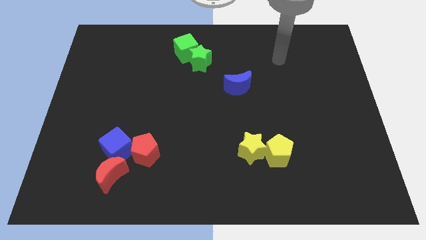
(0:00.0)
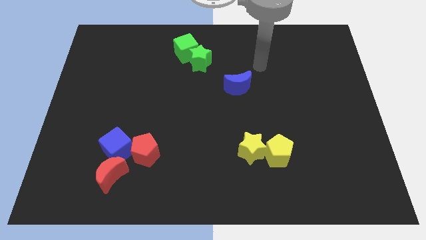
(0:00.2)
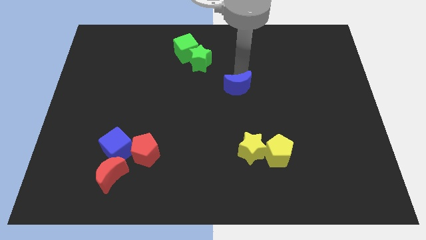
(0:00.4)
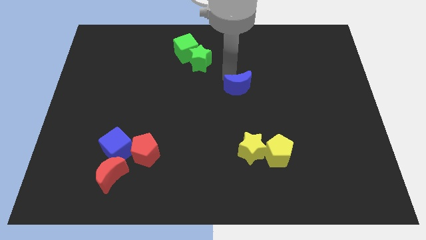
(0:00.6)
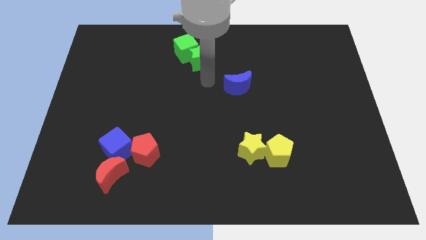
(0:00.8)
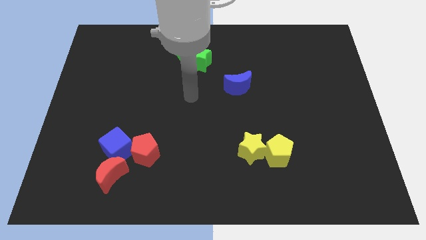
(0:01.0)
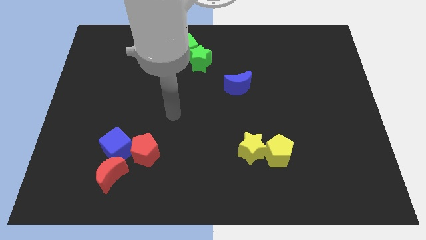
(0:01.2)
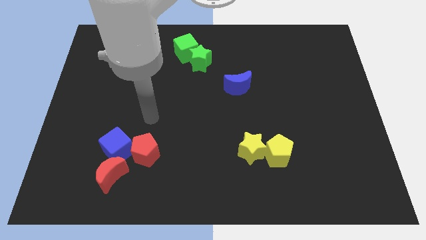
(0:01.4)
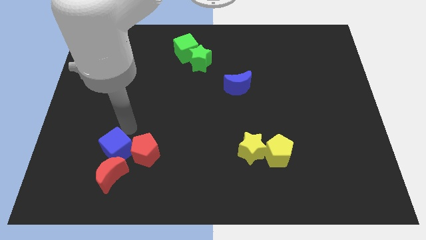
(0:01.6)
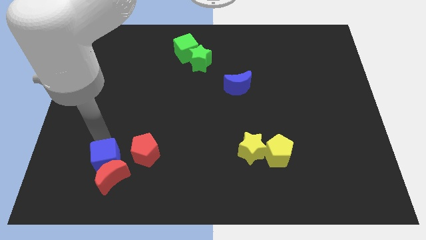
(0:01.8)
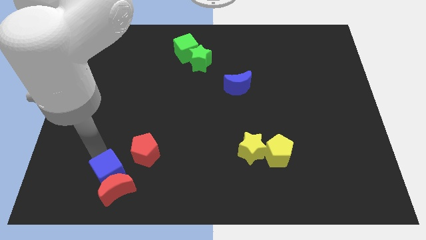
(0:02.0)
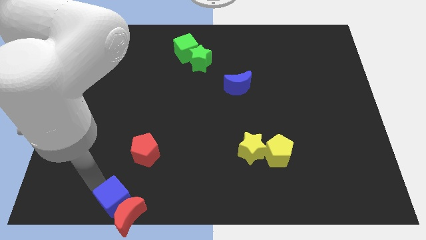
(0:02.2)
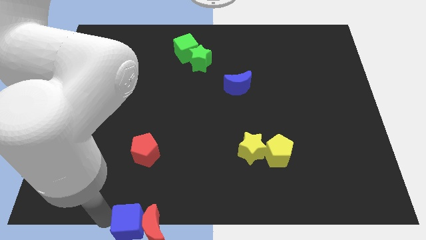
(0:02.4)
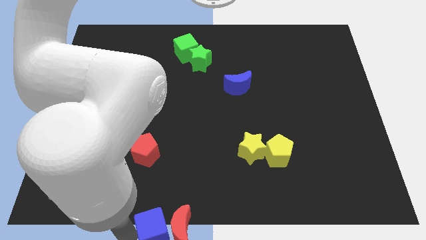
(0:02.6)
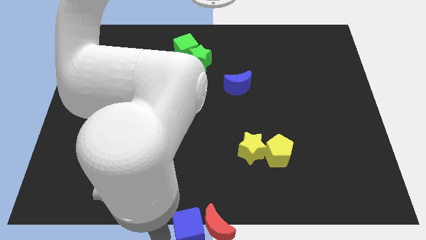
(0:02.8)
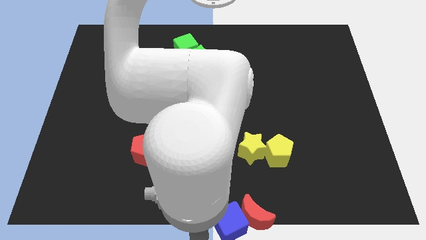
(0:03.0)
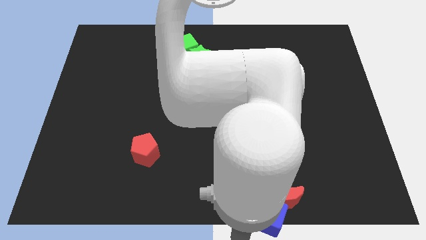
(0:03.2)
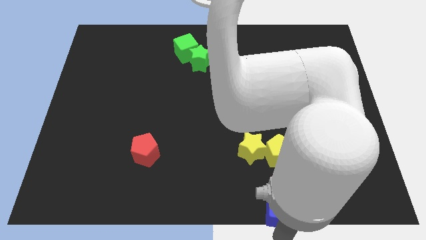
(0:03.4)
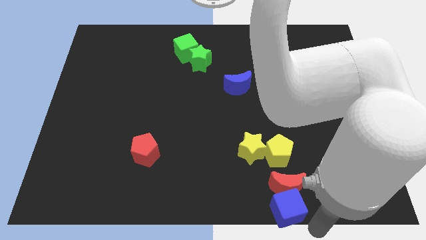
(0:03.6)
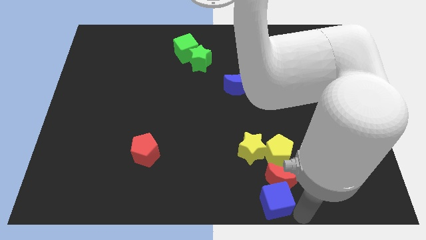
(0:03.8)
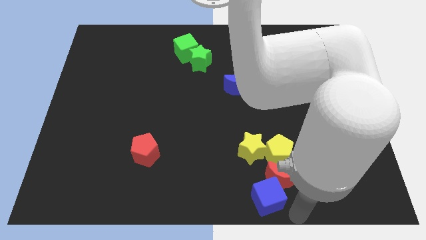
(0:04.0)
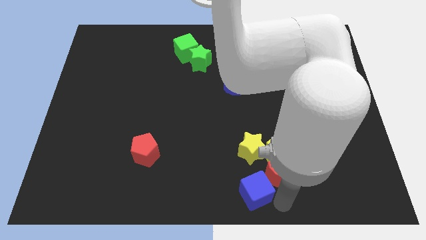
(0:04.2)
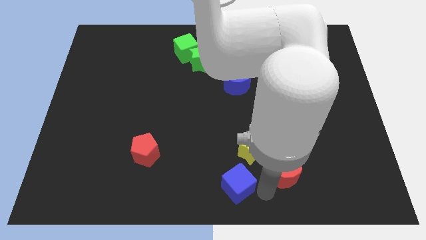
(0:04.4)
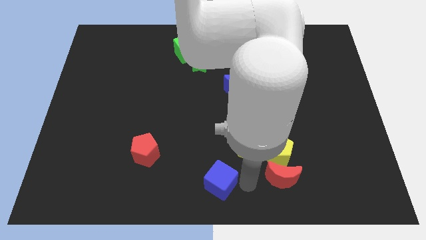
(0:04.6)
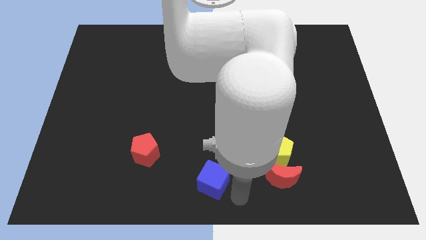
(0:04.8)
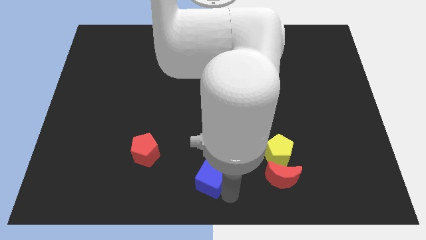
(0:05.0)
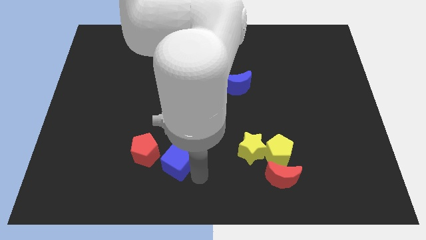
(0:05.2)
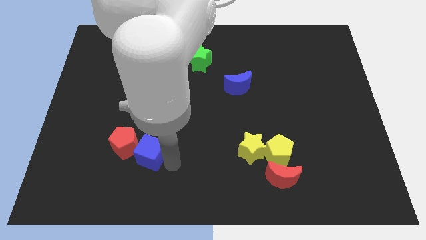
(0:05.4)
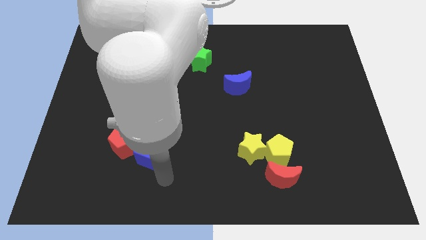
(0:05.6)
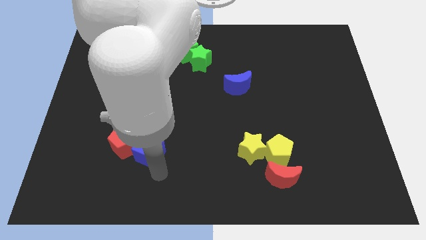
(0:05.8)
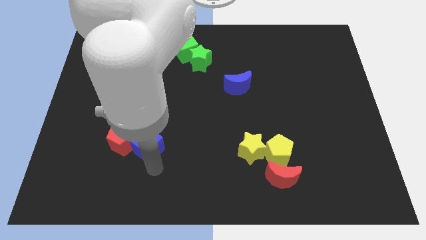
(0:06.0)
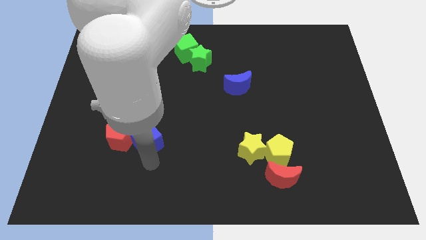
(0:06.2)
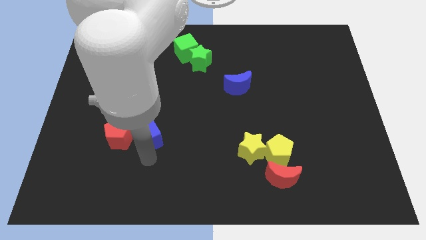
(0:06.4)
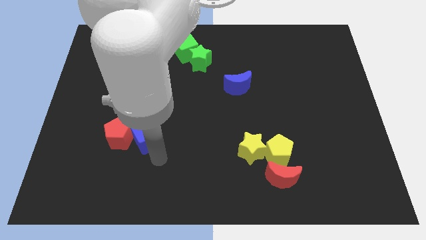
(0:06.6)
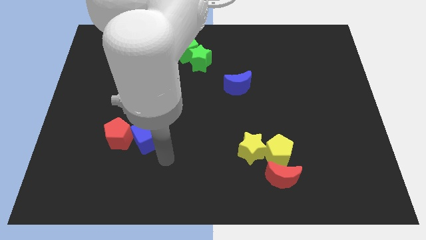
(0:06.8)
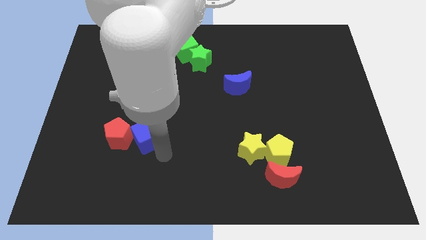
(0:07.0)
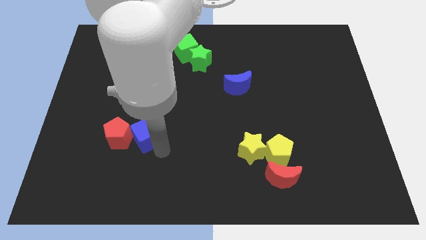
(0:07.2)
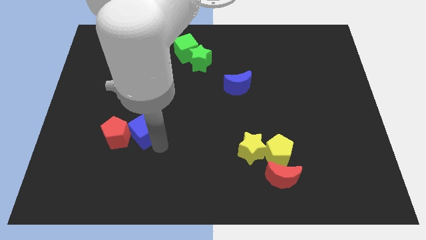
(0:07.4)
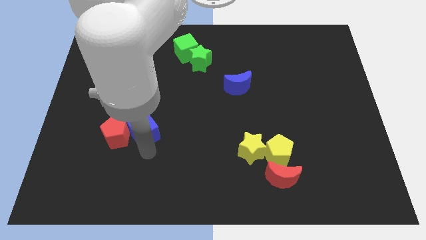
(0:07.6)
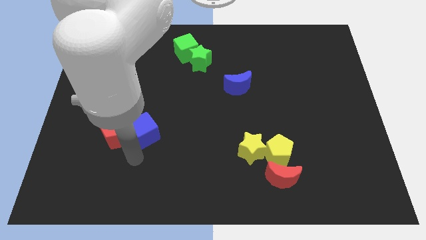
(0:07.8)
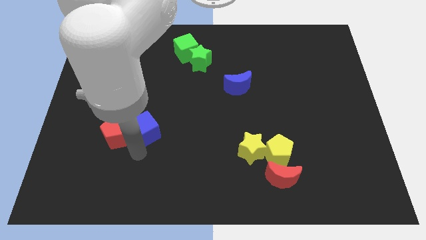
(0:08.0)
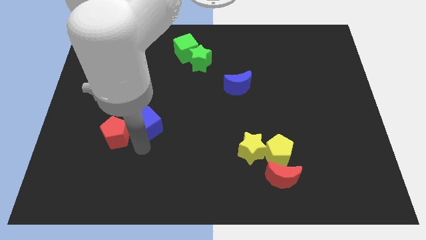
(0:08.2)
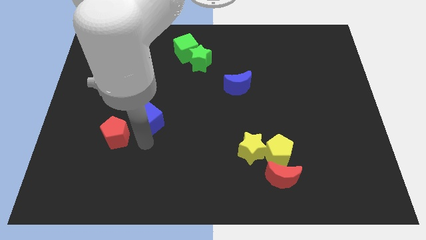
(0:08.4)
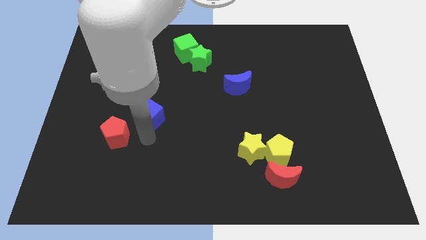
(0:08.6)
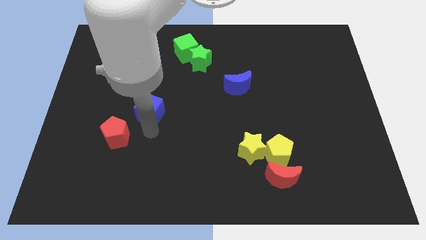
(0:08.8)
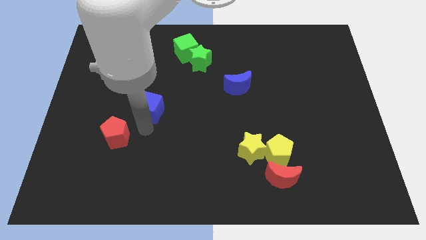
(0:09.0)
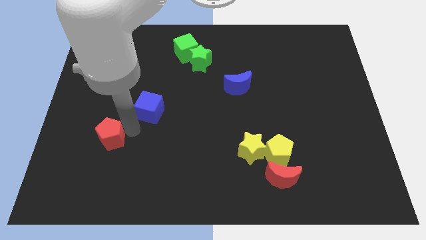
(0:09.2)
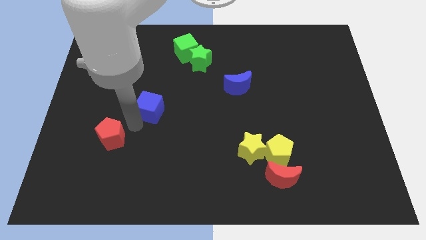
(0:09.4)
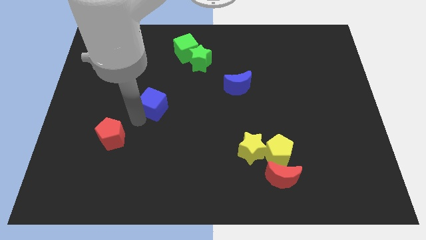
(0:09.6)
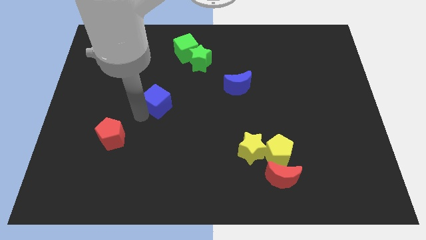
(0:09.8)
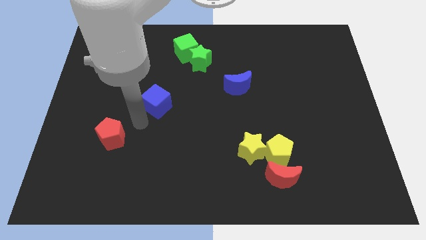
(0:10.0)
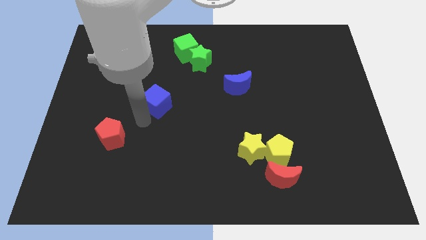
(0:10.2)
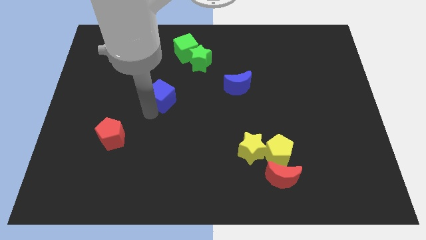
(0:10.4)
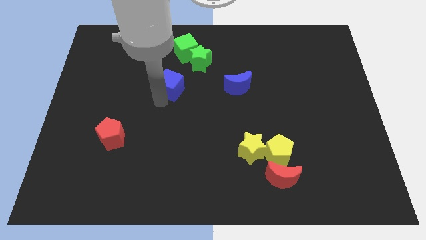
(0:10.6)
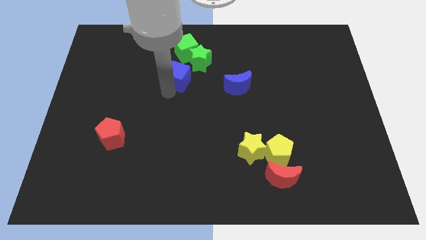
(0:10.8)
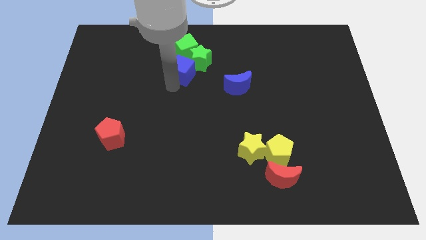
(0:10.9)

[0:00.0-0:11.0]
move the blue cube towards the green star

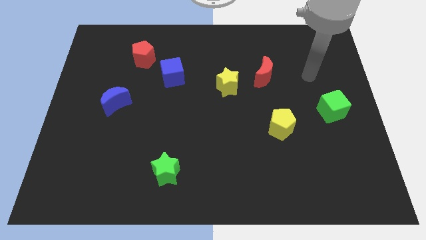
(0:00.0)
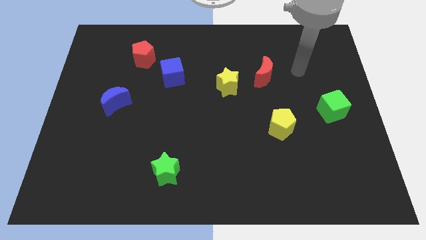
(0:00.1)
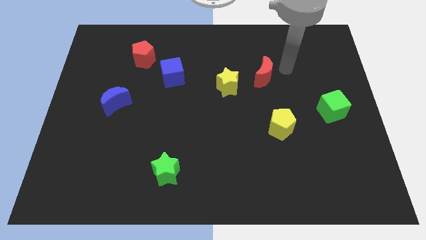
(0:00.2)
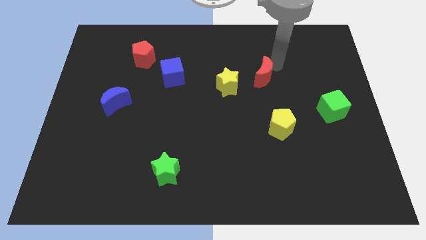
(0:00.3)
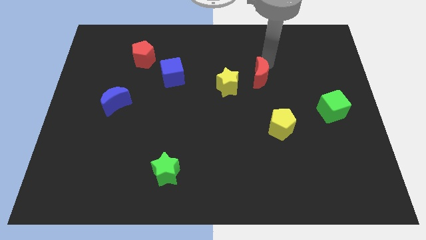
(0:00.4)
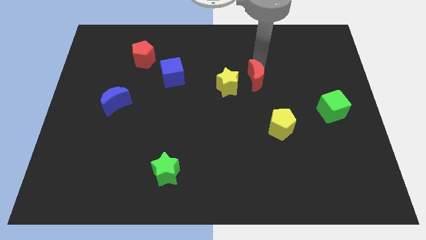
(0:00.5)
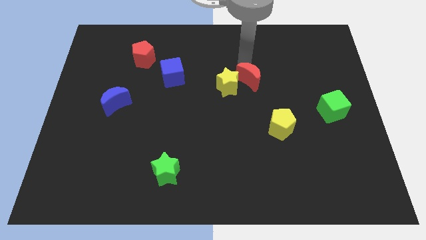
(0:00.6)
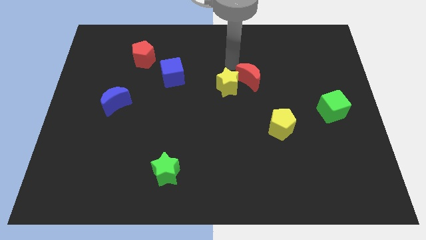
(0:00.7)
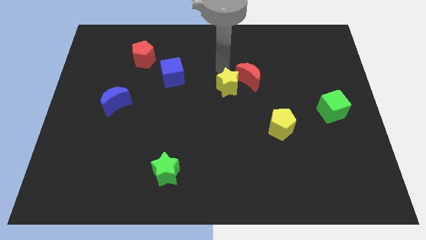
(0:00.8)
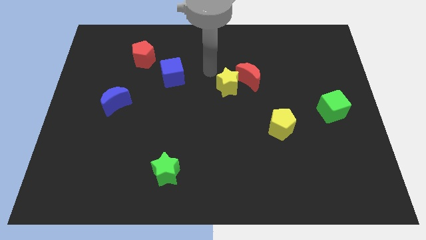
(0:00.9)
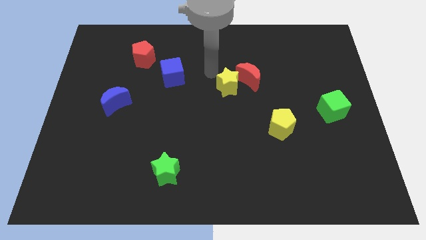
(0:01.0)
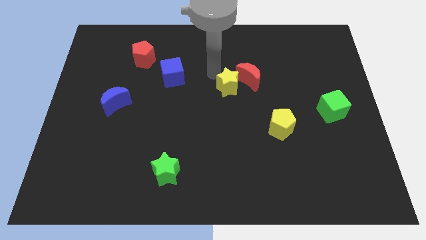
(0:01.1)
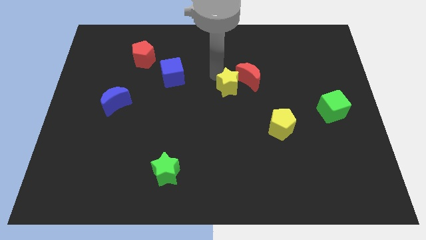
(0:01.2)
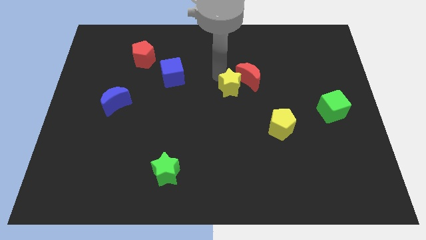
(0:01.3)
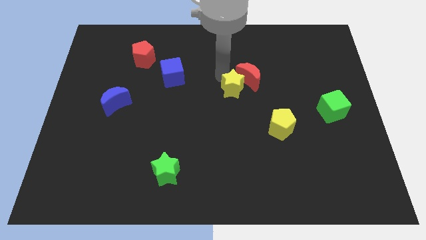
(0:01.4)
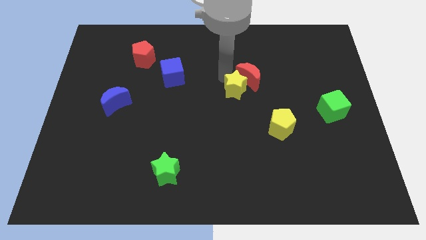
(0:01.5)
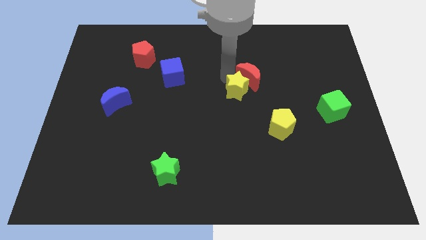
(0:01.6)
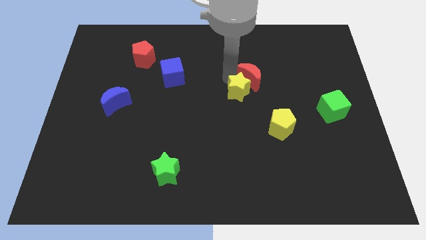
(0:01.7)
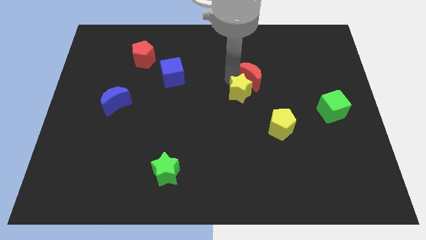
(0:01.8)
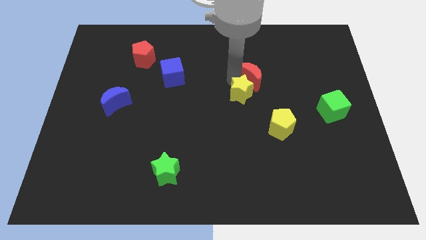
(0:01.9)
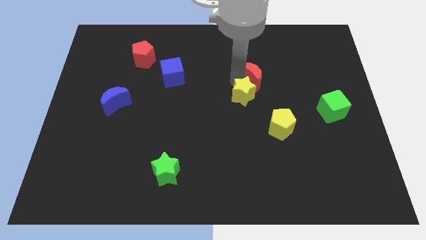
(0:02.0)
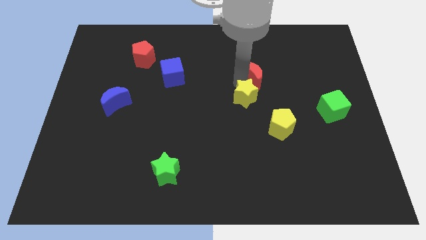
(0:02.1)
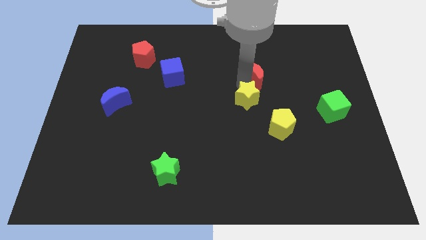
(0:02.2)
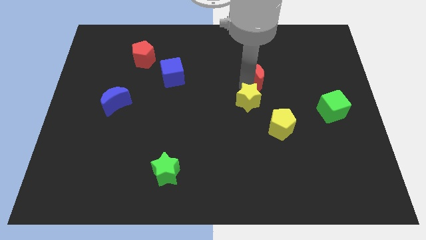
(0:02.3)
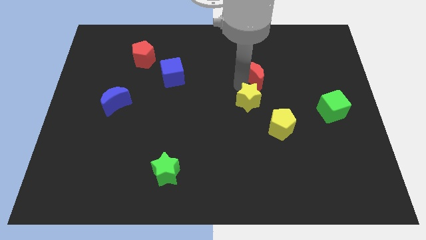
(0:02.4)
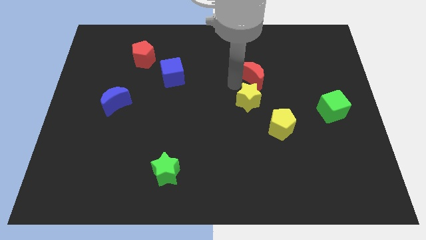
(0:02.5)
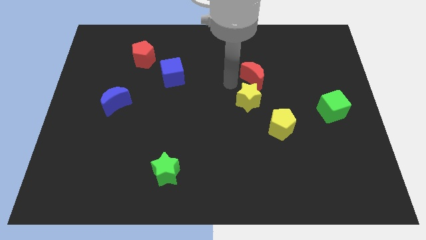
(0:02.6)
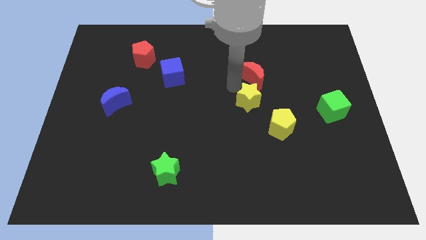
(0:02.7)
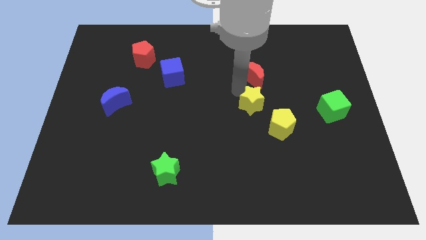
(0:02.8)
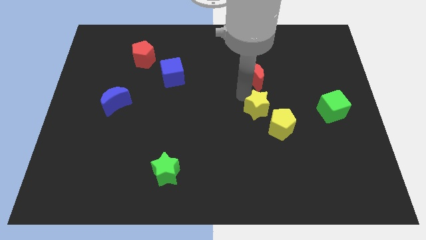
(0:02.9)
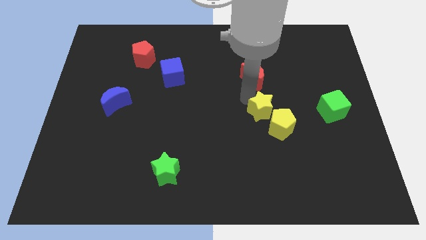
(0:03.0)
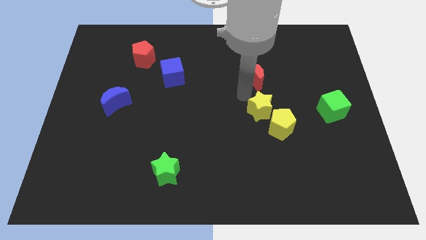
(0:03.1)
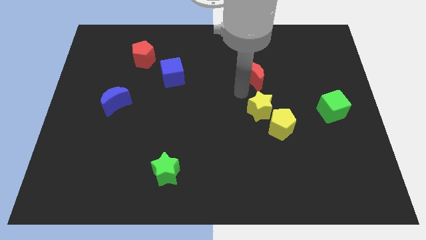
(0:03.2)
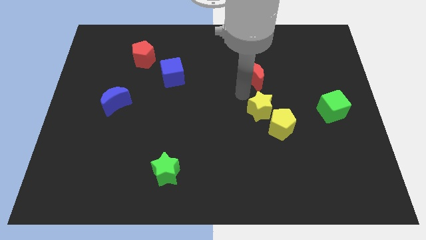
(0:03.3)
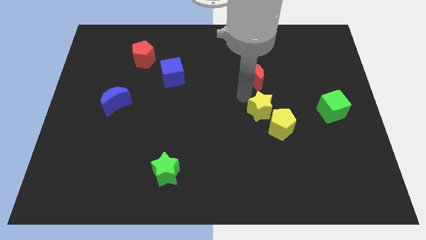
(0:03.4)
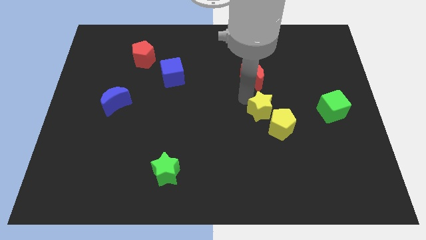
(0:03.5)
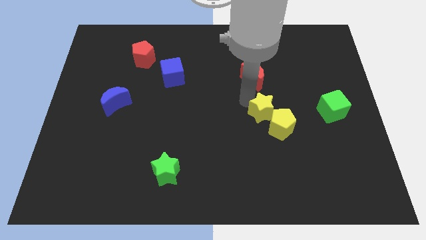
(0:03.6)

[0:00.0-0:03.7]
push the yellow star to the yellow pentagon
